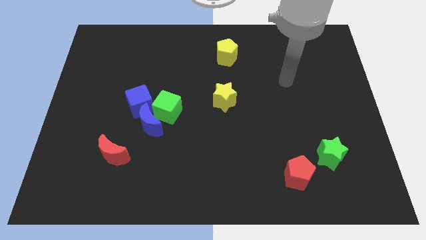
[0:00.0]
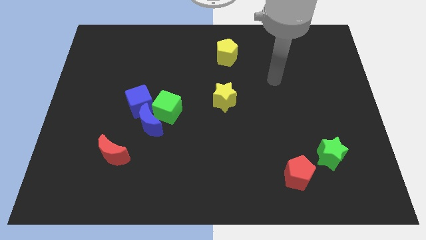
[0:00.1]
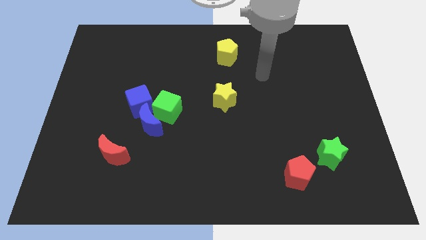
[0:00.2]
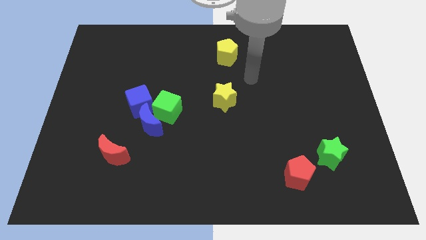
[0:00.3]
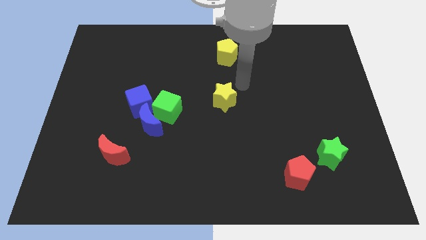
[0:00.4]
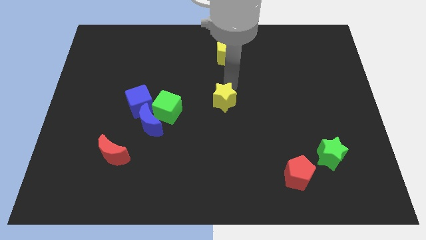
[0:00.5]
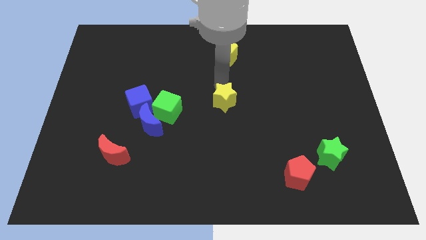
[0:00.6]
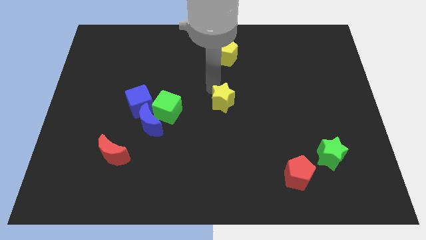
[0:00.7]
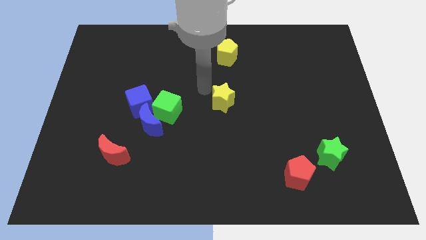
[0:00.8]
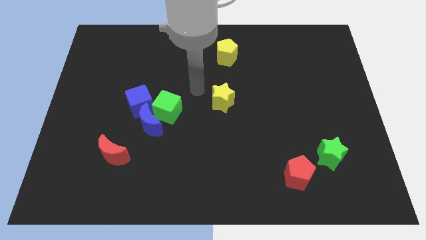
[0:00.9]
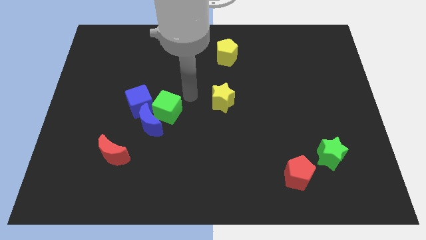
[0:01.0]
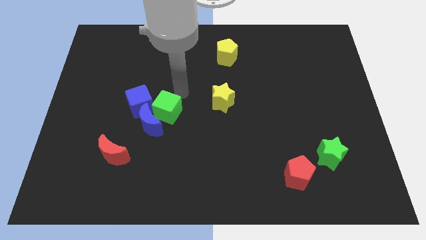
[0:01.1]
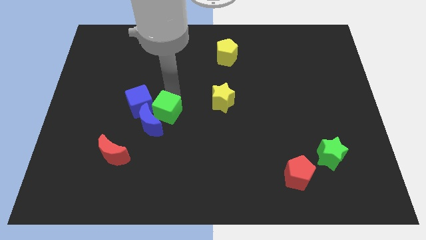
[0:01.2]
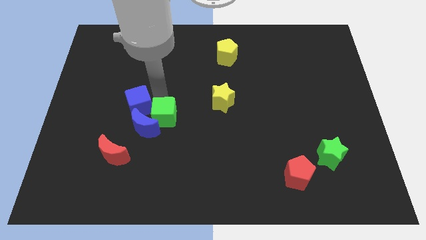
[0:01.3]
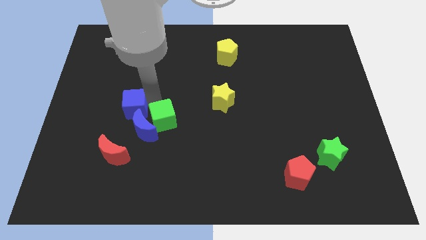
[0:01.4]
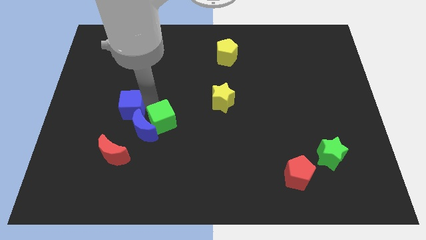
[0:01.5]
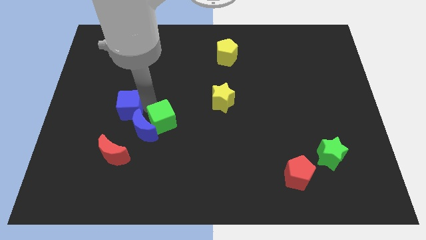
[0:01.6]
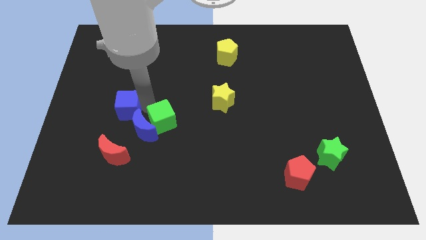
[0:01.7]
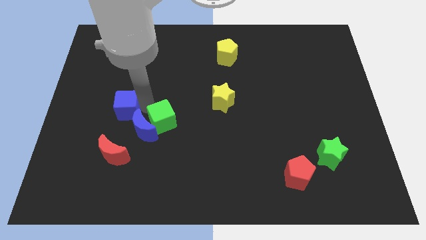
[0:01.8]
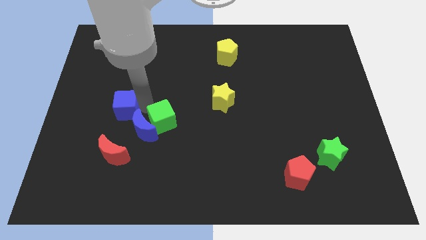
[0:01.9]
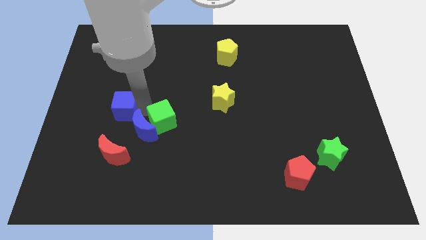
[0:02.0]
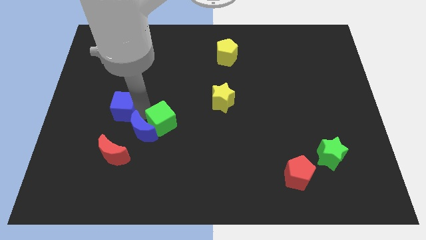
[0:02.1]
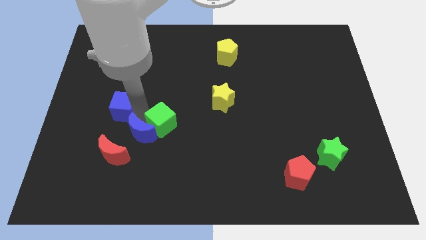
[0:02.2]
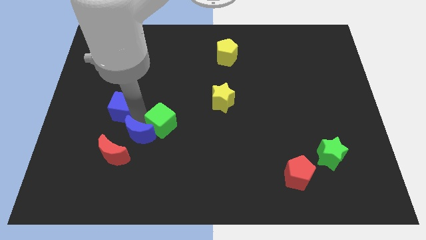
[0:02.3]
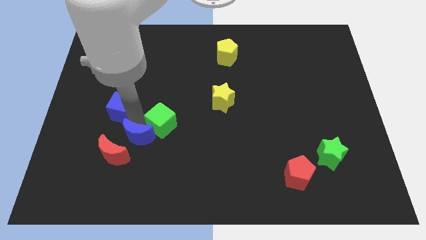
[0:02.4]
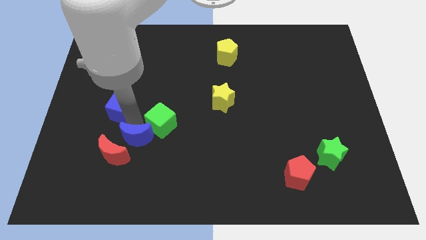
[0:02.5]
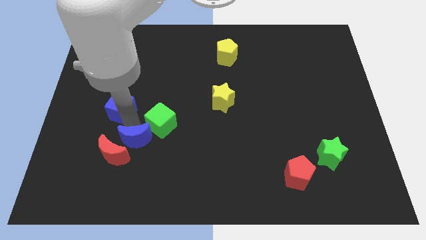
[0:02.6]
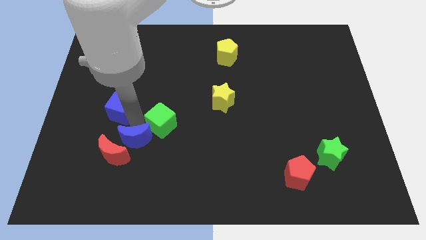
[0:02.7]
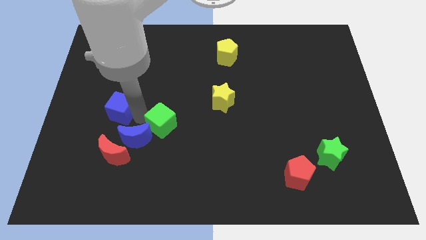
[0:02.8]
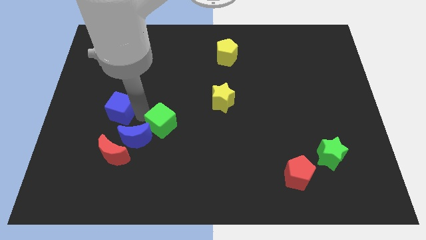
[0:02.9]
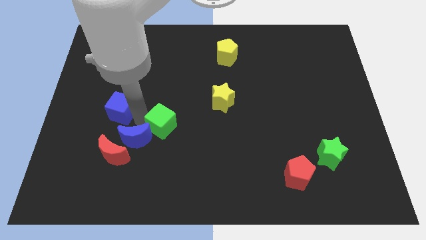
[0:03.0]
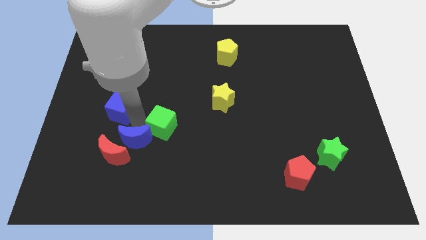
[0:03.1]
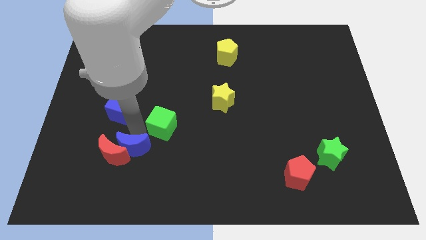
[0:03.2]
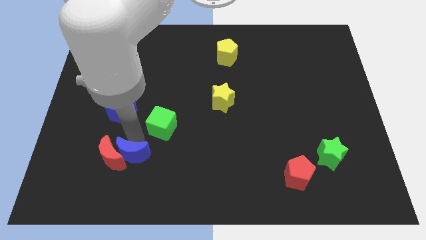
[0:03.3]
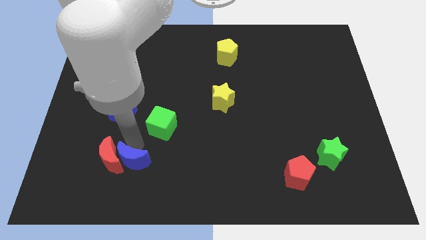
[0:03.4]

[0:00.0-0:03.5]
move the blue moon away from the green cube and blue cube

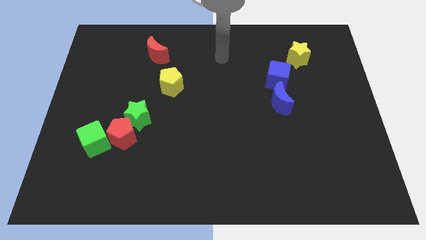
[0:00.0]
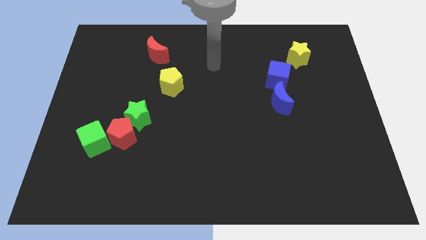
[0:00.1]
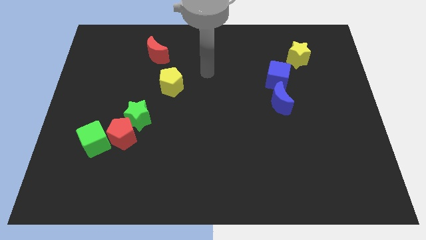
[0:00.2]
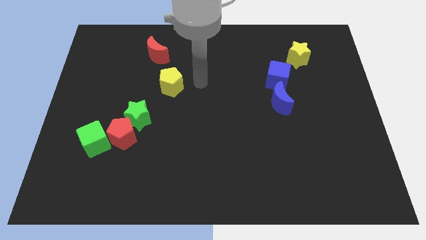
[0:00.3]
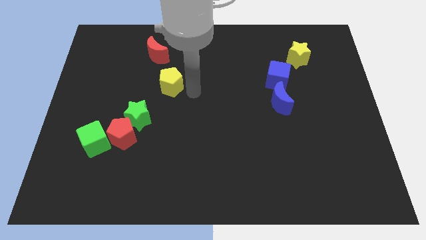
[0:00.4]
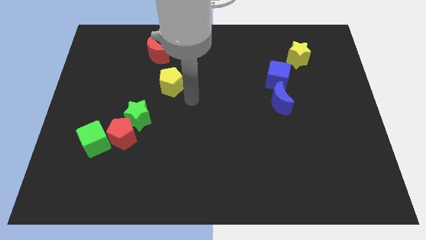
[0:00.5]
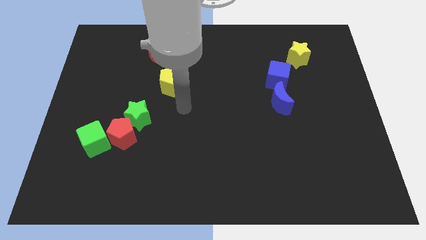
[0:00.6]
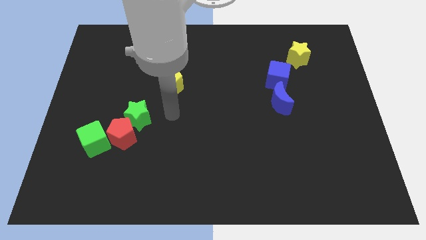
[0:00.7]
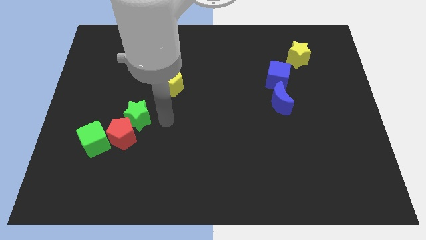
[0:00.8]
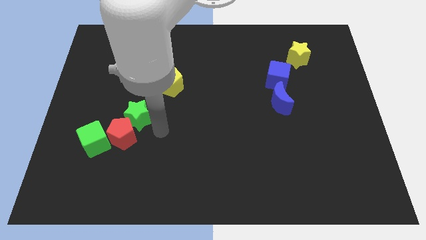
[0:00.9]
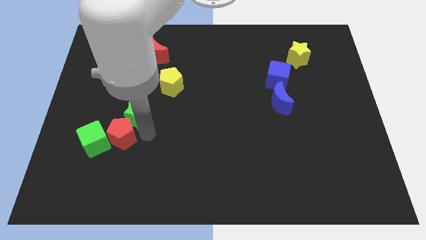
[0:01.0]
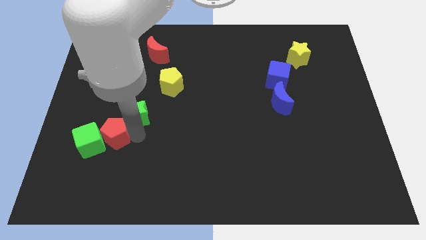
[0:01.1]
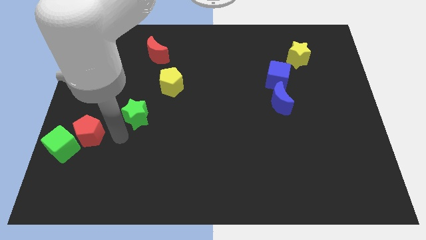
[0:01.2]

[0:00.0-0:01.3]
pull the green star apart from the red pentagon

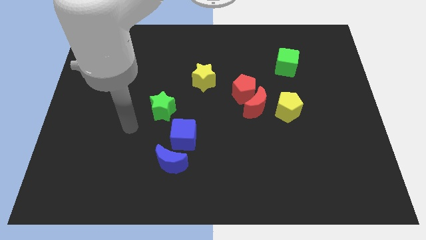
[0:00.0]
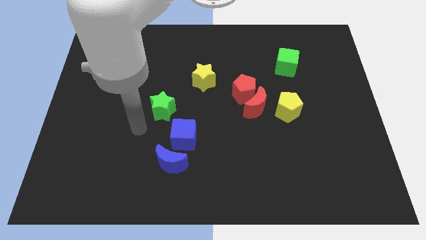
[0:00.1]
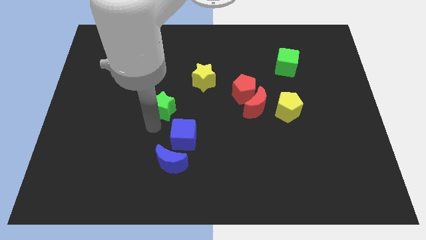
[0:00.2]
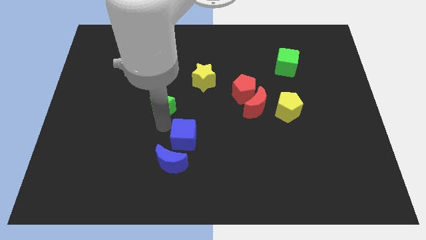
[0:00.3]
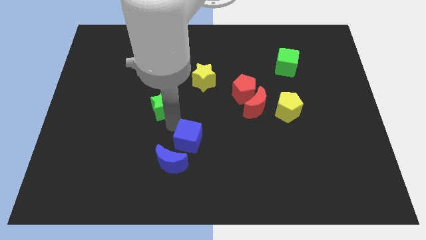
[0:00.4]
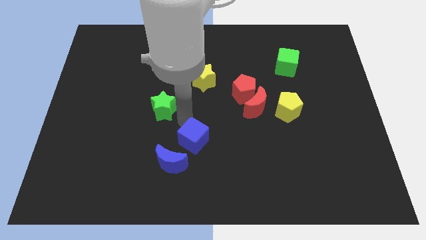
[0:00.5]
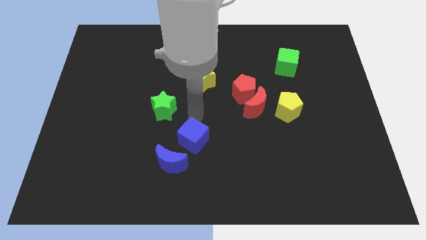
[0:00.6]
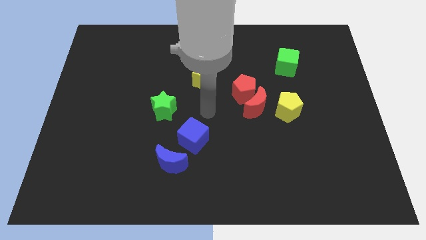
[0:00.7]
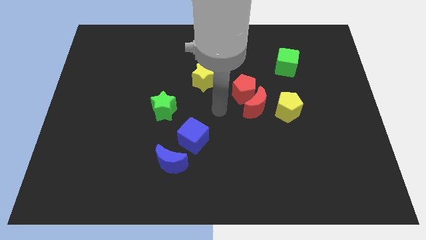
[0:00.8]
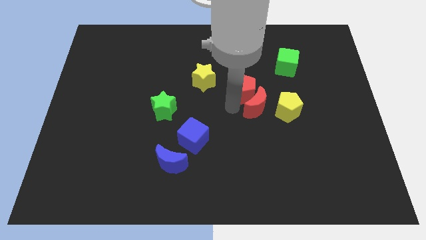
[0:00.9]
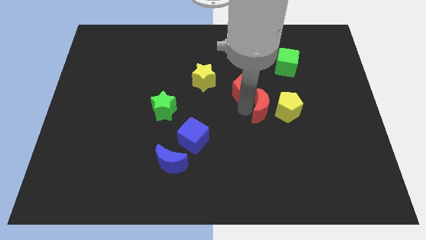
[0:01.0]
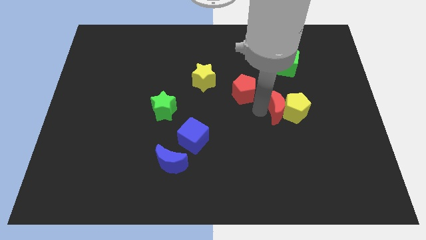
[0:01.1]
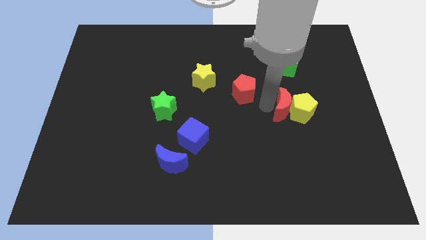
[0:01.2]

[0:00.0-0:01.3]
separate the red pentagon from the red moon

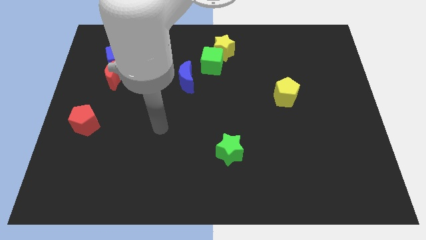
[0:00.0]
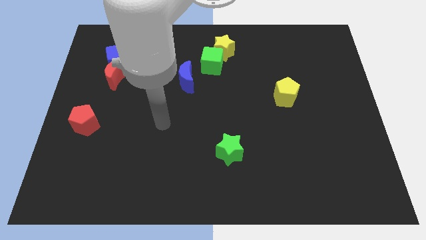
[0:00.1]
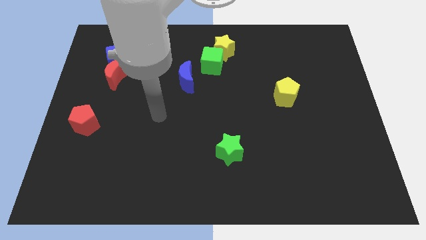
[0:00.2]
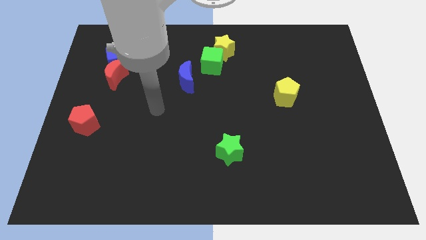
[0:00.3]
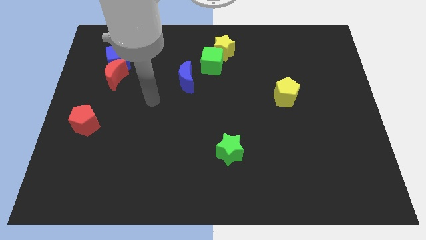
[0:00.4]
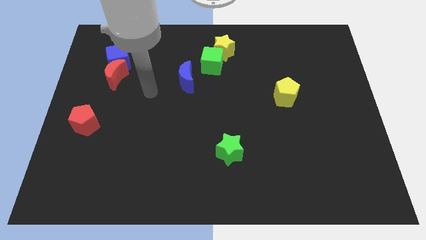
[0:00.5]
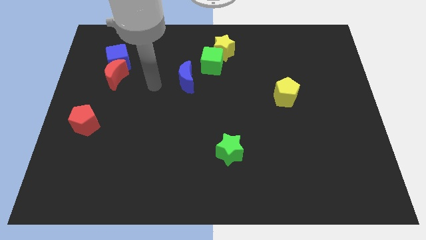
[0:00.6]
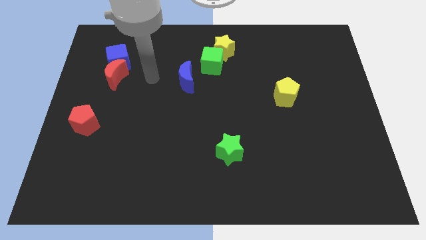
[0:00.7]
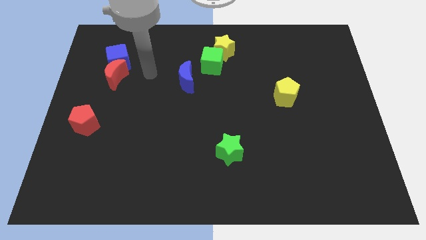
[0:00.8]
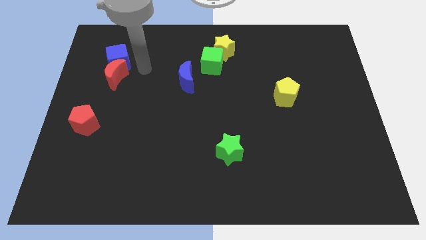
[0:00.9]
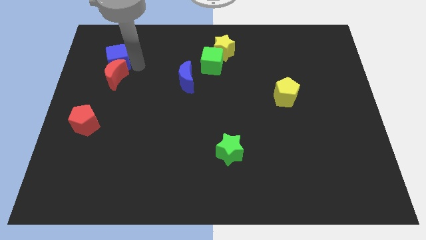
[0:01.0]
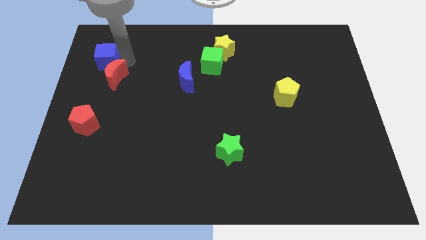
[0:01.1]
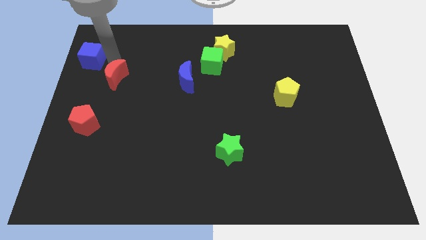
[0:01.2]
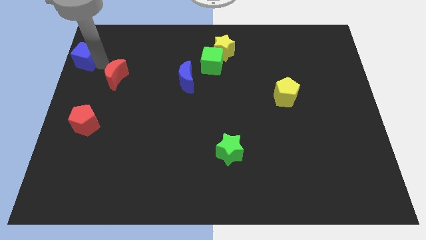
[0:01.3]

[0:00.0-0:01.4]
separate the red moon from the blue cube

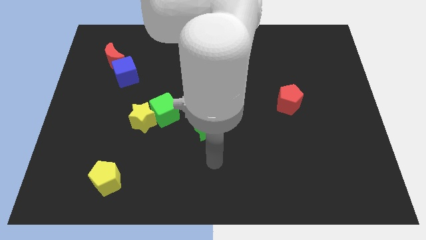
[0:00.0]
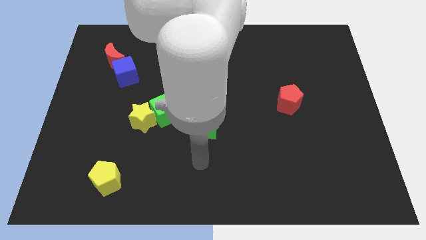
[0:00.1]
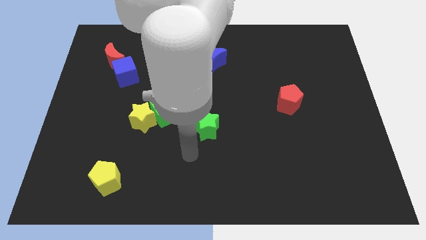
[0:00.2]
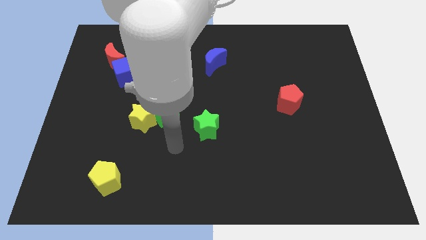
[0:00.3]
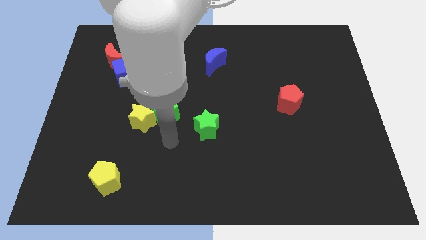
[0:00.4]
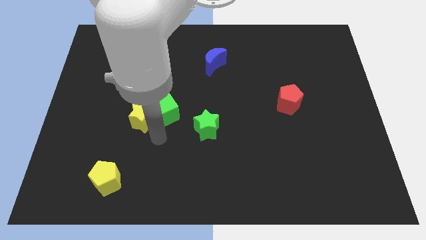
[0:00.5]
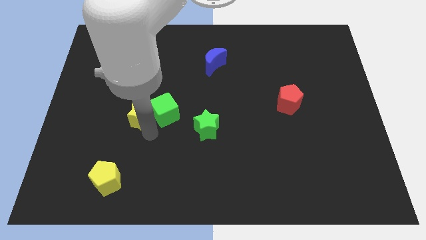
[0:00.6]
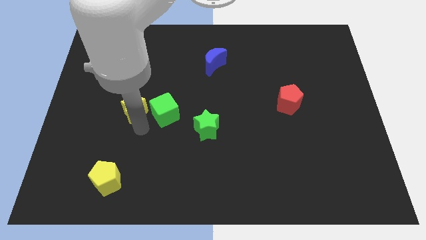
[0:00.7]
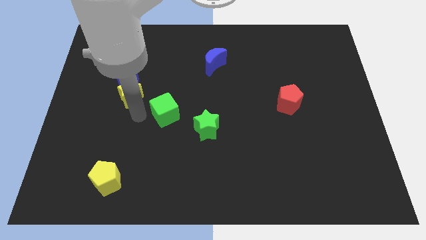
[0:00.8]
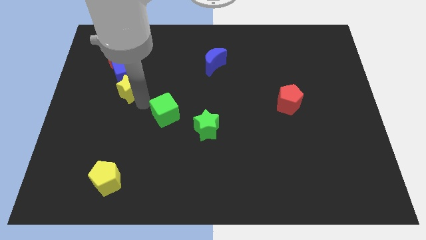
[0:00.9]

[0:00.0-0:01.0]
move the green cube away from the yellow star

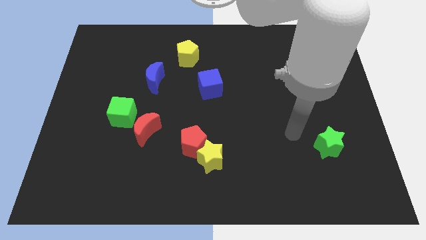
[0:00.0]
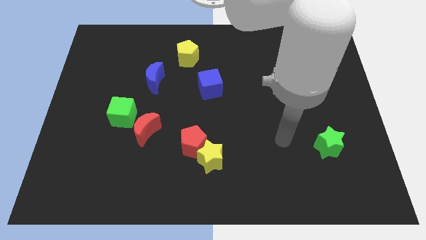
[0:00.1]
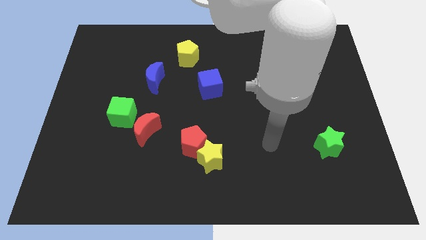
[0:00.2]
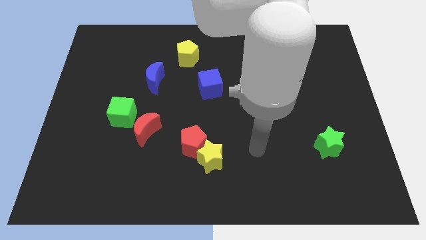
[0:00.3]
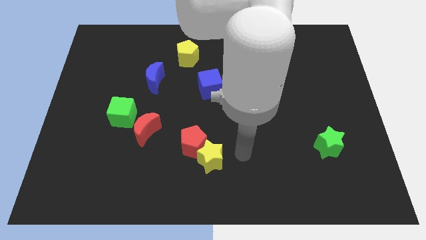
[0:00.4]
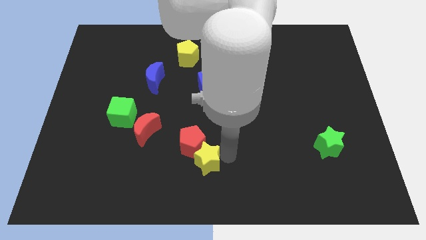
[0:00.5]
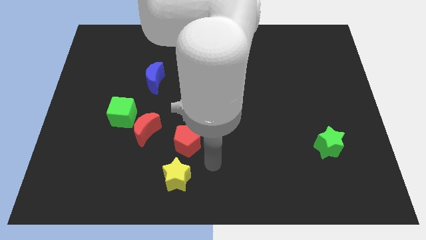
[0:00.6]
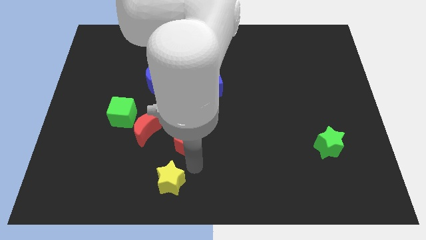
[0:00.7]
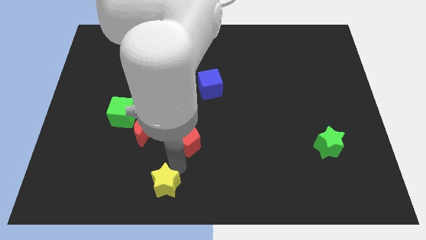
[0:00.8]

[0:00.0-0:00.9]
separate the red pentagon from the yellow star
